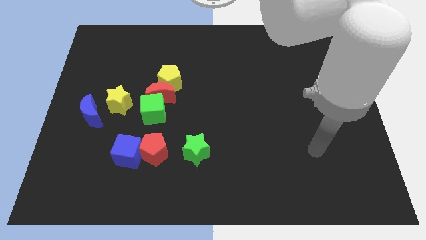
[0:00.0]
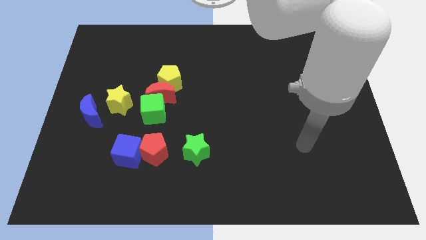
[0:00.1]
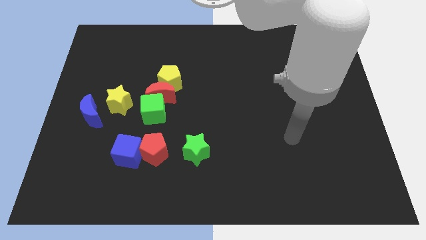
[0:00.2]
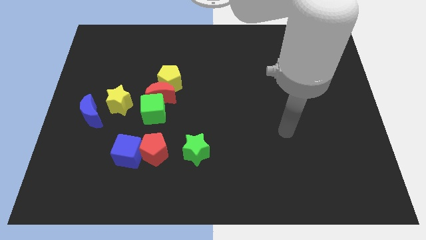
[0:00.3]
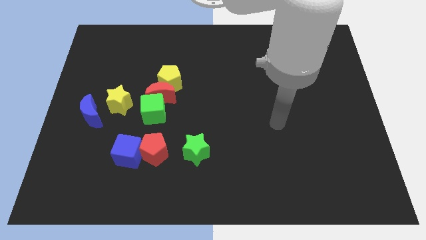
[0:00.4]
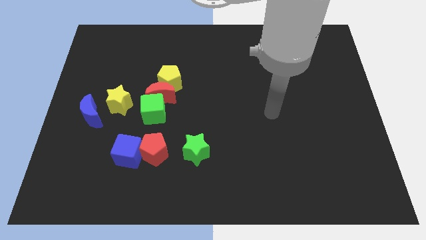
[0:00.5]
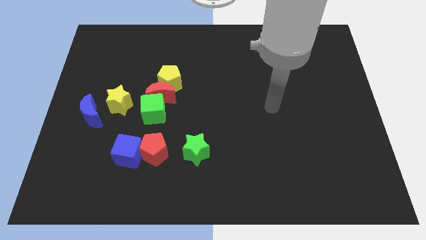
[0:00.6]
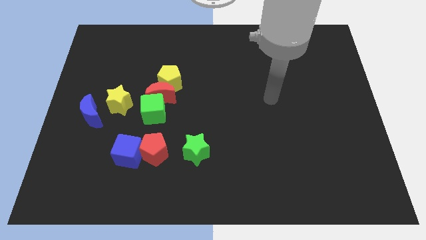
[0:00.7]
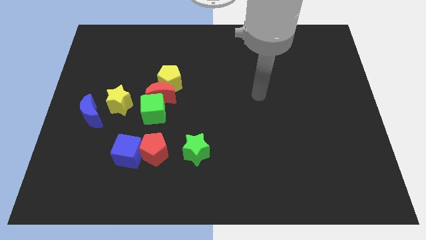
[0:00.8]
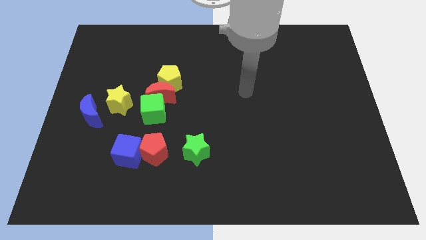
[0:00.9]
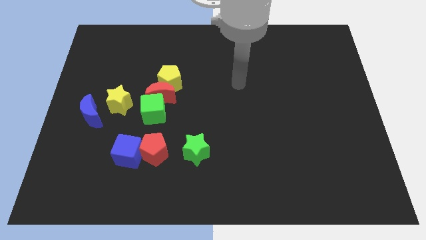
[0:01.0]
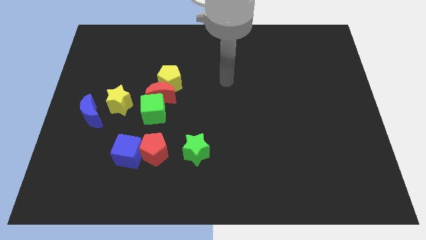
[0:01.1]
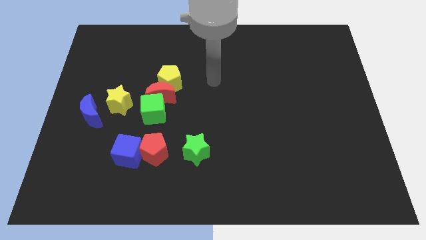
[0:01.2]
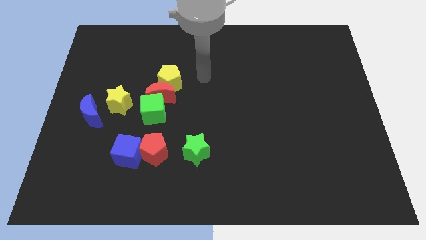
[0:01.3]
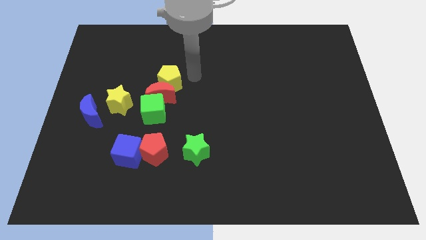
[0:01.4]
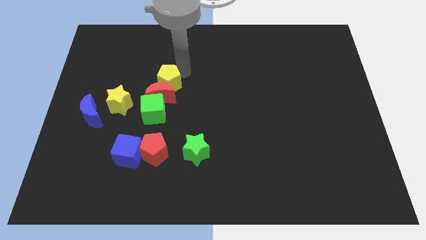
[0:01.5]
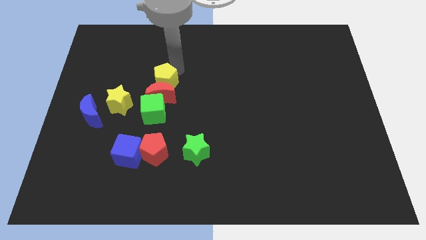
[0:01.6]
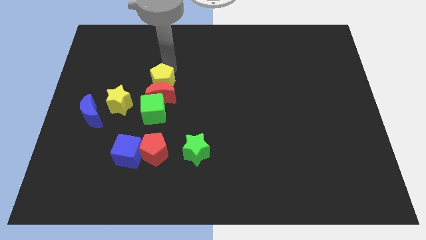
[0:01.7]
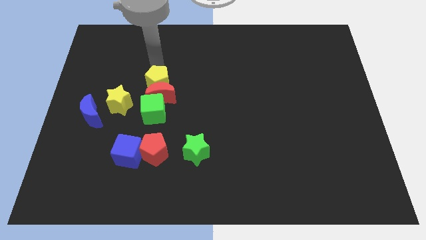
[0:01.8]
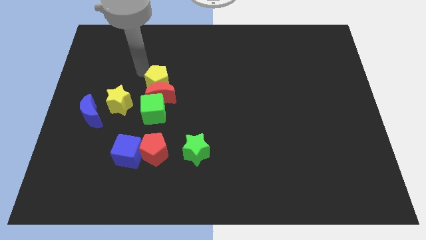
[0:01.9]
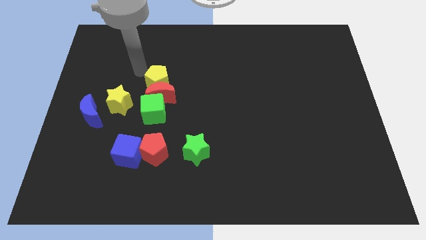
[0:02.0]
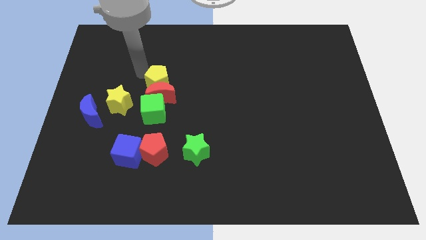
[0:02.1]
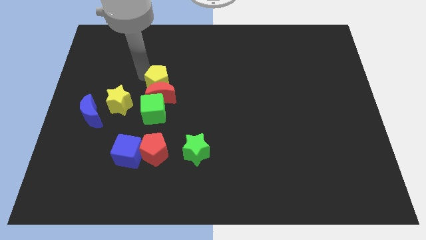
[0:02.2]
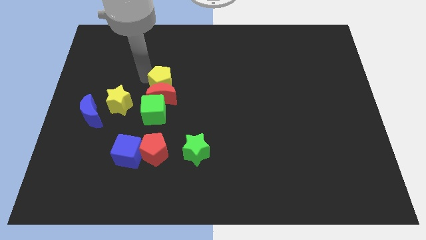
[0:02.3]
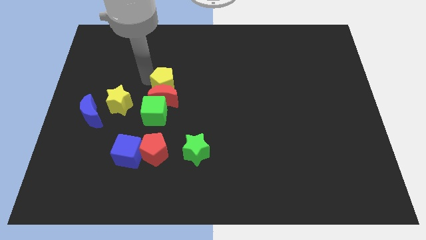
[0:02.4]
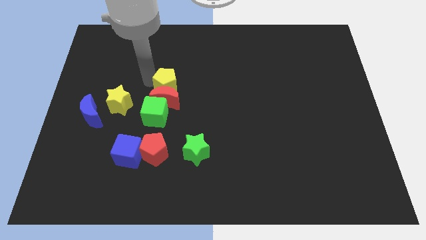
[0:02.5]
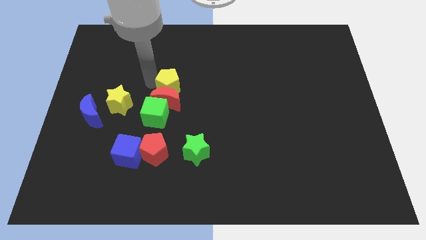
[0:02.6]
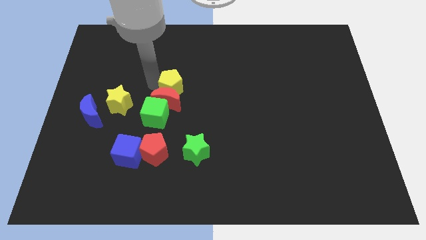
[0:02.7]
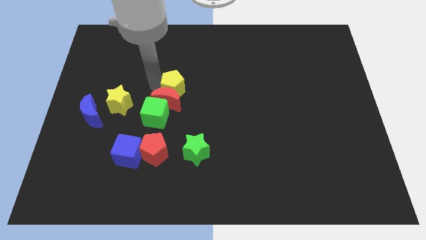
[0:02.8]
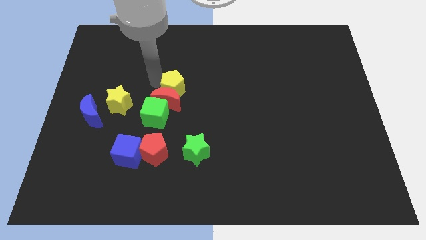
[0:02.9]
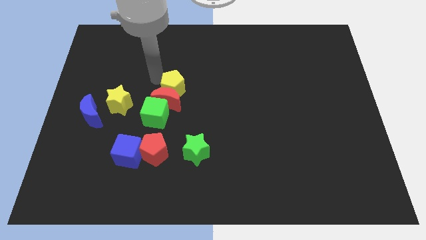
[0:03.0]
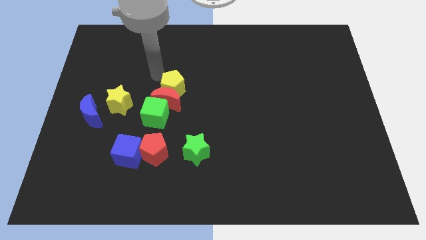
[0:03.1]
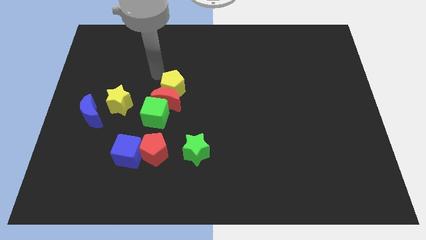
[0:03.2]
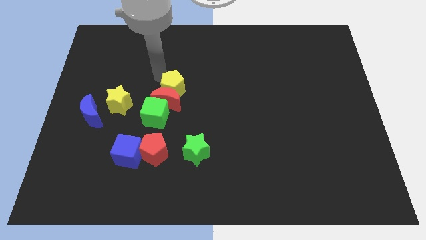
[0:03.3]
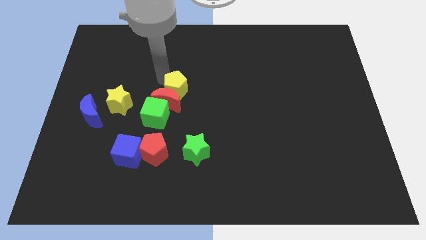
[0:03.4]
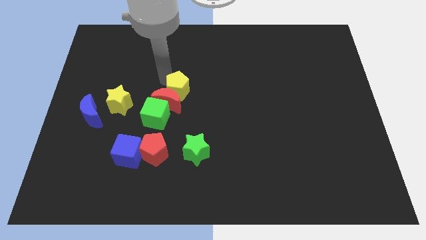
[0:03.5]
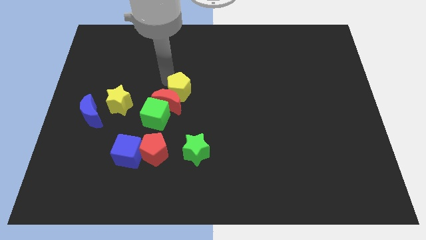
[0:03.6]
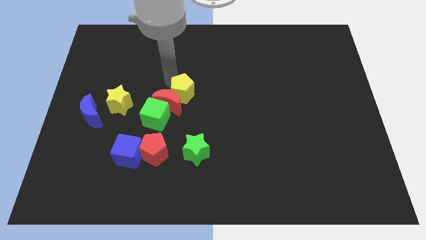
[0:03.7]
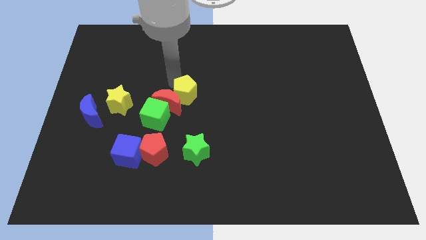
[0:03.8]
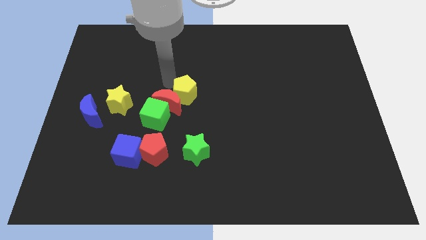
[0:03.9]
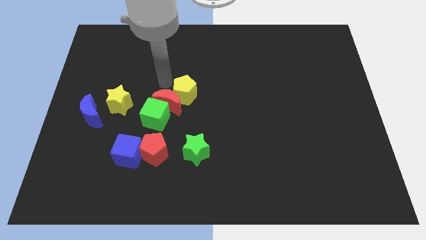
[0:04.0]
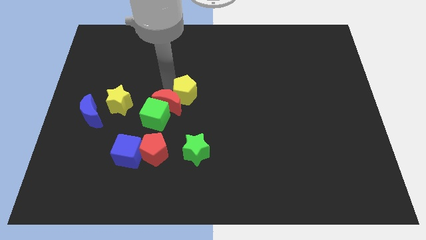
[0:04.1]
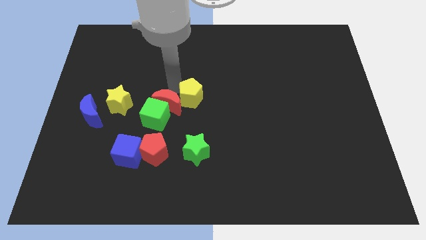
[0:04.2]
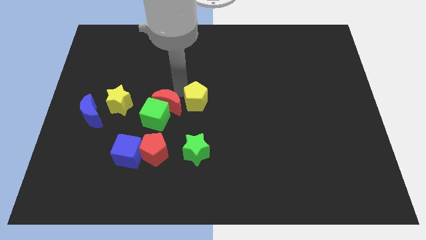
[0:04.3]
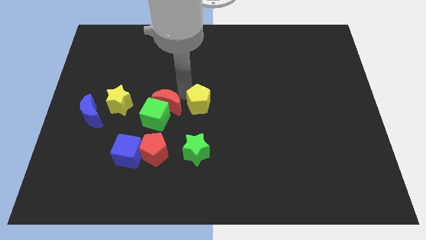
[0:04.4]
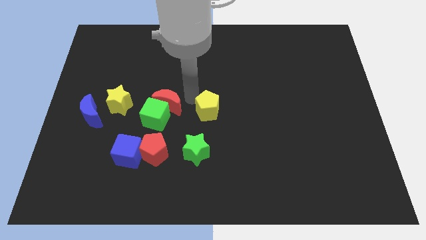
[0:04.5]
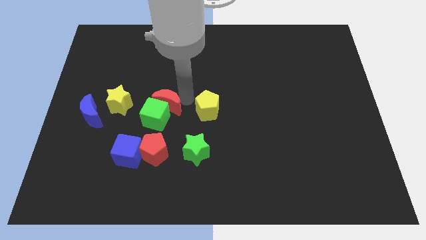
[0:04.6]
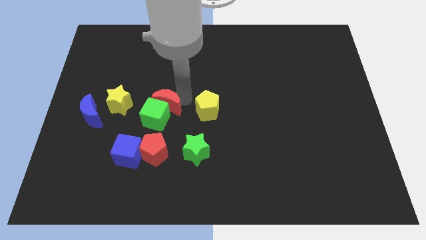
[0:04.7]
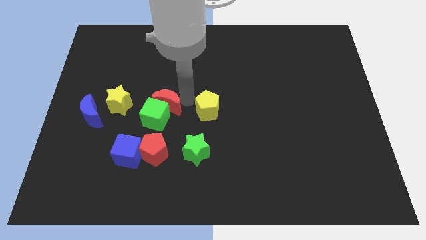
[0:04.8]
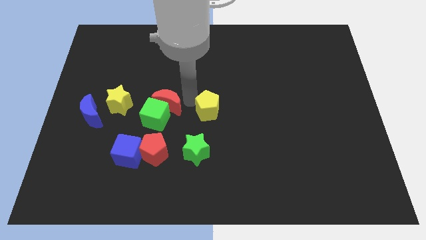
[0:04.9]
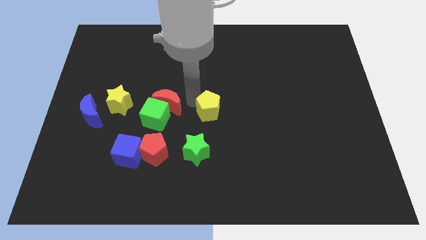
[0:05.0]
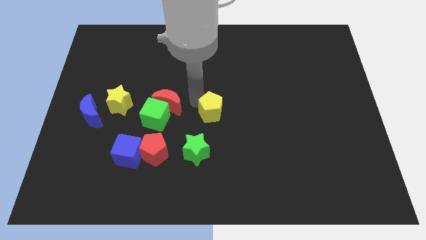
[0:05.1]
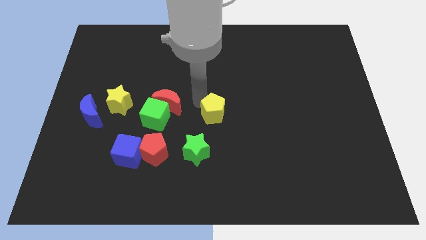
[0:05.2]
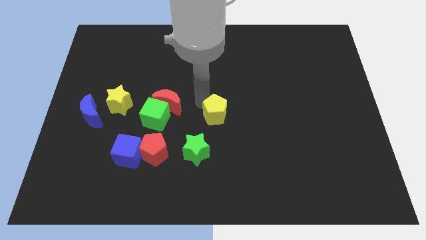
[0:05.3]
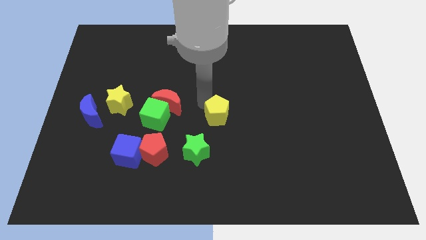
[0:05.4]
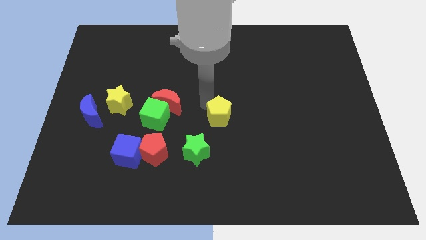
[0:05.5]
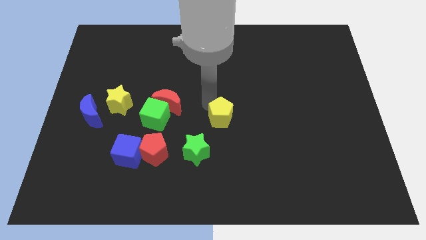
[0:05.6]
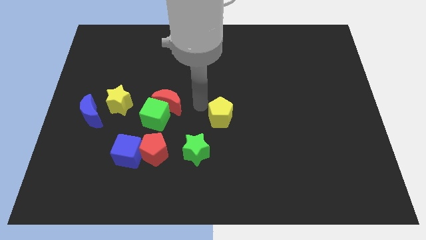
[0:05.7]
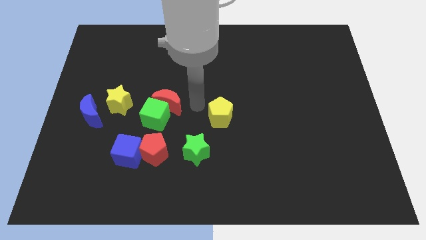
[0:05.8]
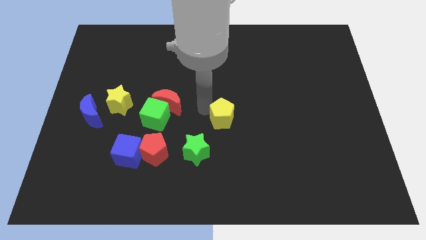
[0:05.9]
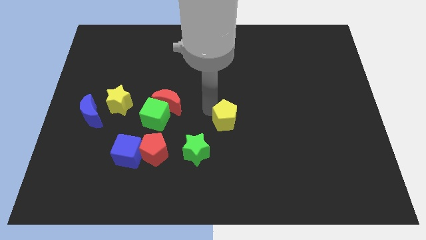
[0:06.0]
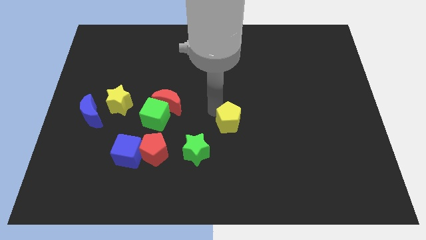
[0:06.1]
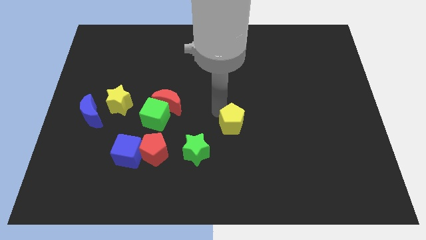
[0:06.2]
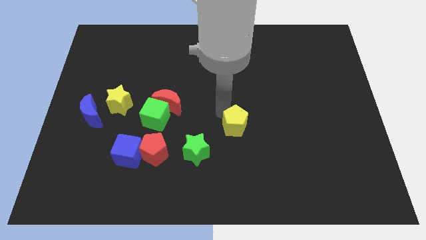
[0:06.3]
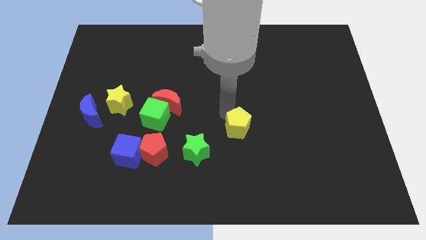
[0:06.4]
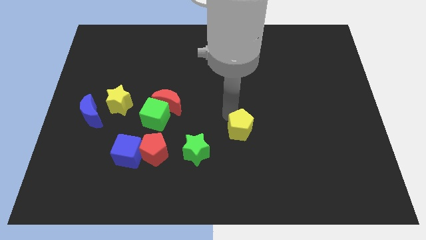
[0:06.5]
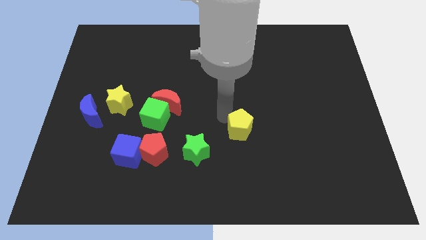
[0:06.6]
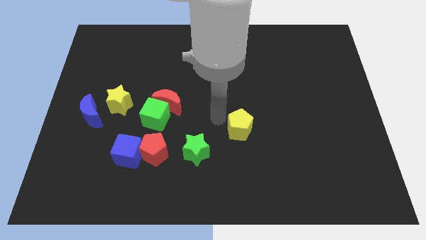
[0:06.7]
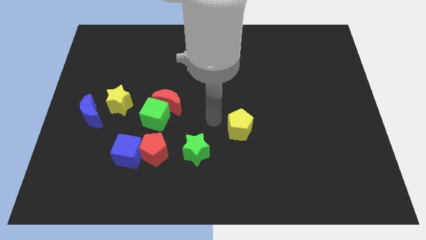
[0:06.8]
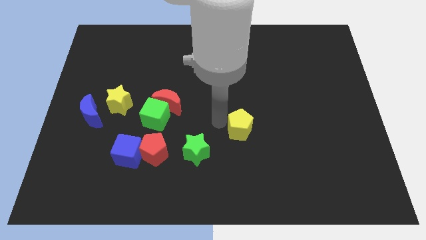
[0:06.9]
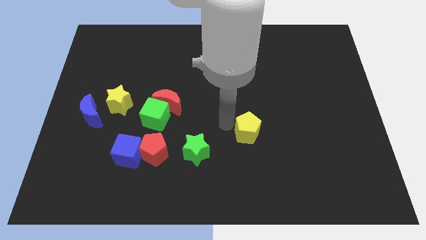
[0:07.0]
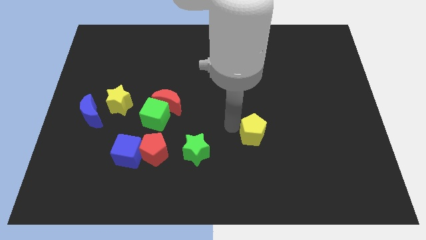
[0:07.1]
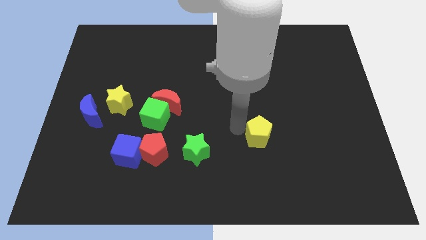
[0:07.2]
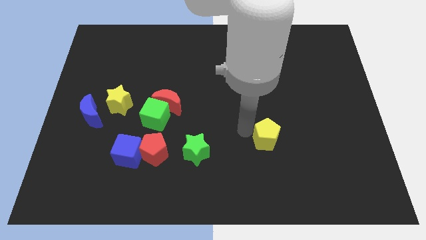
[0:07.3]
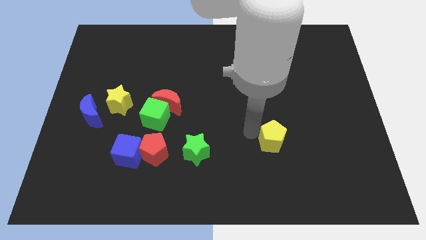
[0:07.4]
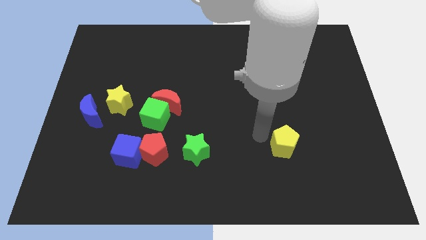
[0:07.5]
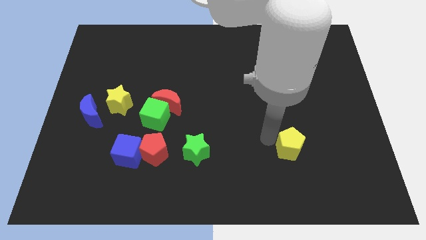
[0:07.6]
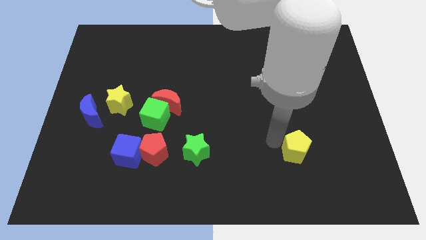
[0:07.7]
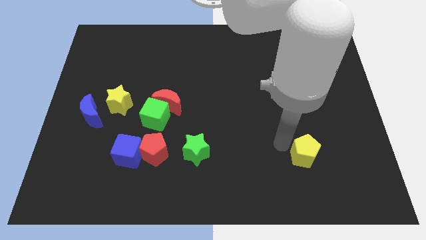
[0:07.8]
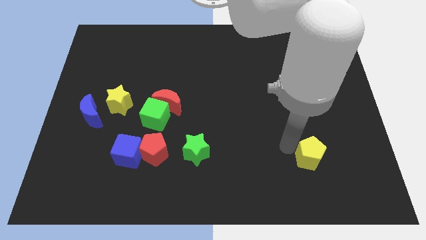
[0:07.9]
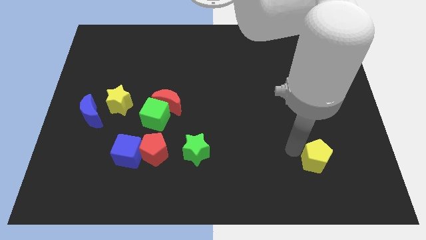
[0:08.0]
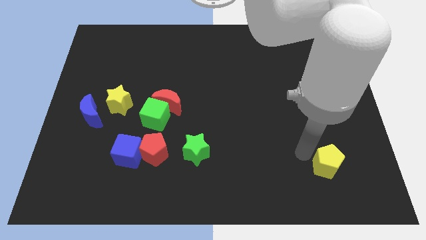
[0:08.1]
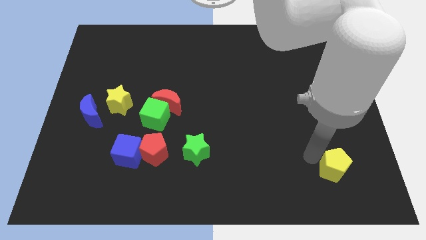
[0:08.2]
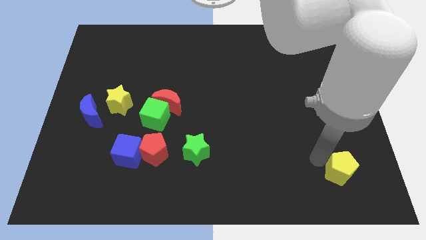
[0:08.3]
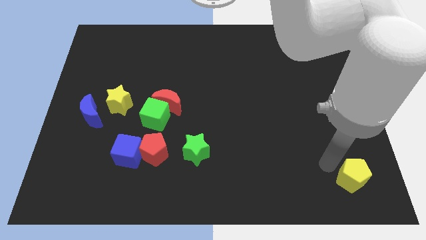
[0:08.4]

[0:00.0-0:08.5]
put the yellow pentagon to the lower right corner
